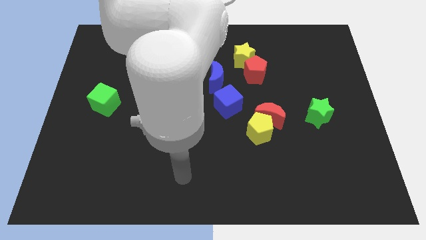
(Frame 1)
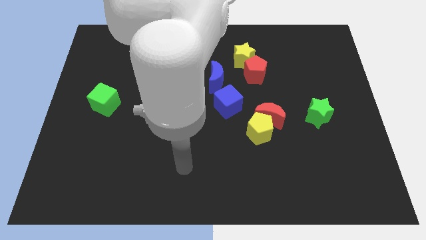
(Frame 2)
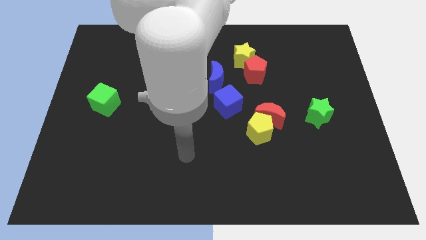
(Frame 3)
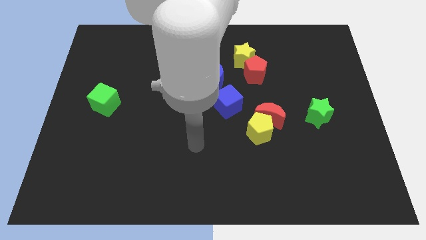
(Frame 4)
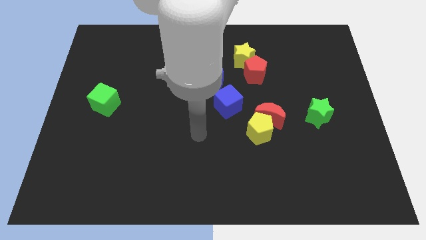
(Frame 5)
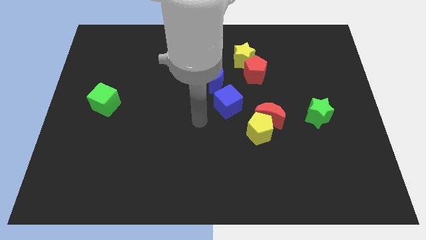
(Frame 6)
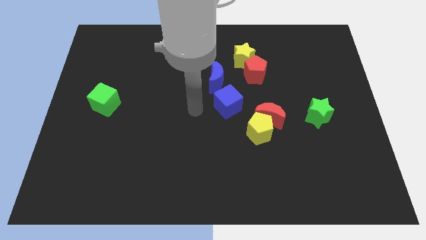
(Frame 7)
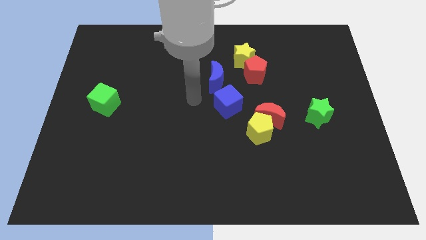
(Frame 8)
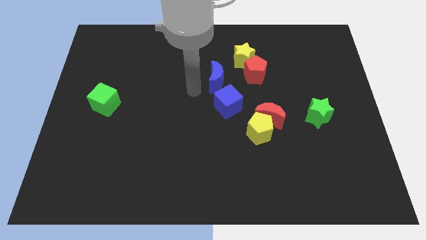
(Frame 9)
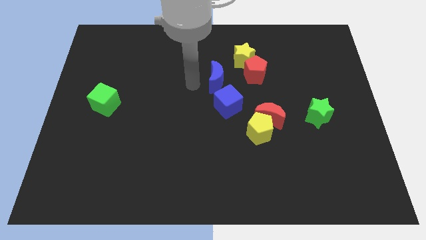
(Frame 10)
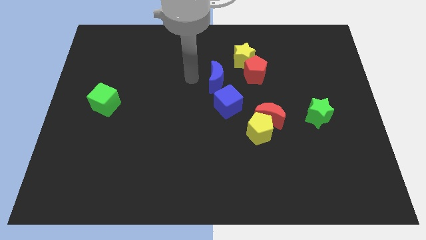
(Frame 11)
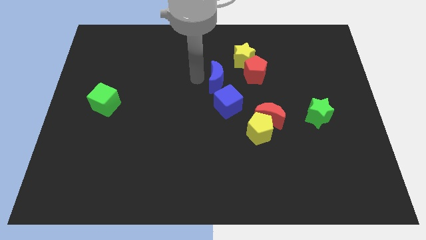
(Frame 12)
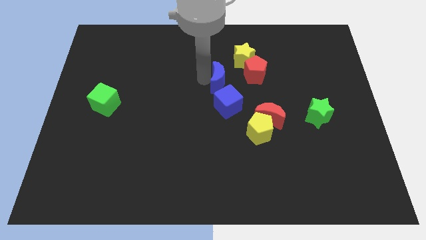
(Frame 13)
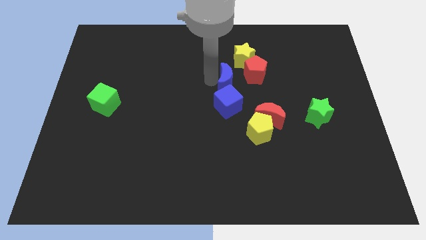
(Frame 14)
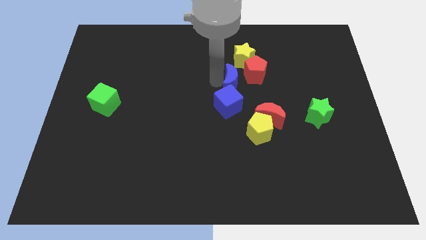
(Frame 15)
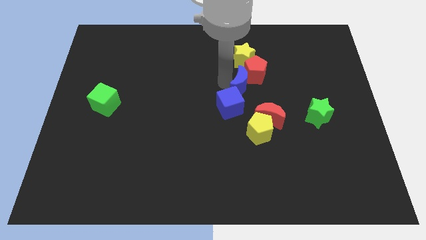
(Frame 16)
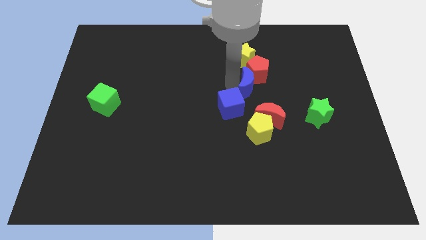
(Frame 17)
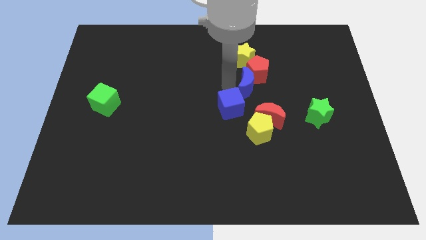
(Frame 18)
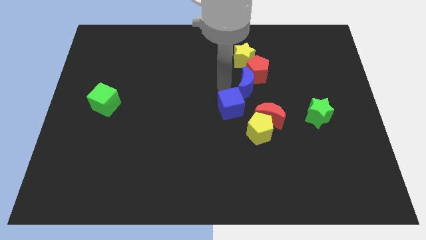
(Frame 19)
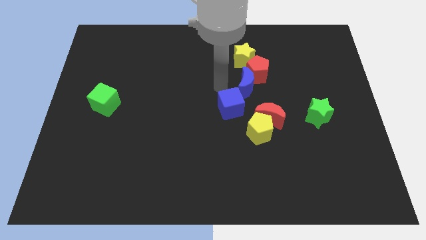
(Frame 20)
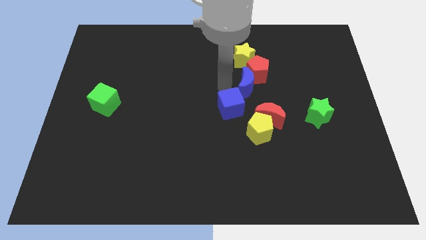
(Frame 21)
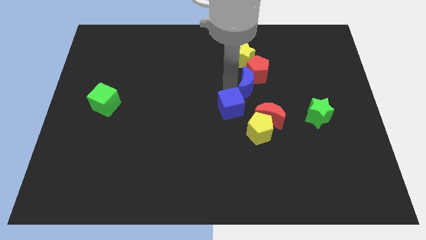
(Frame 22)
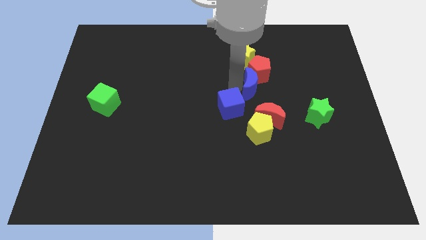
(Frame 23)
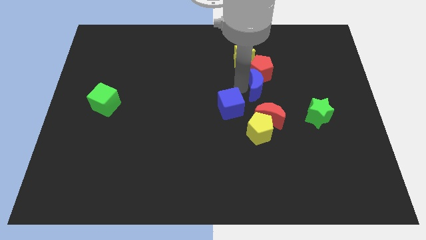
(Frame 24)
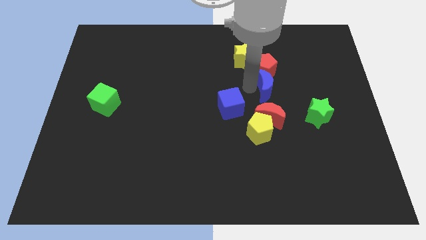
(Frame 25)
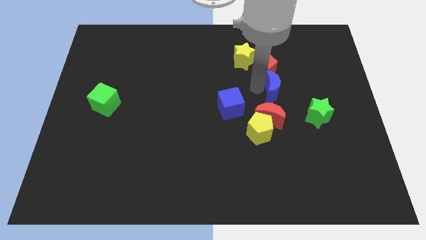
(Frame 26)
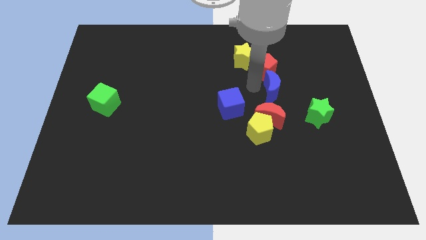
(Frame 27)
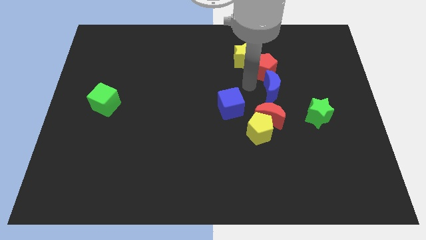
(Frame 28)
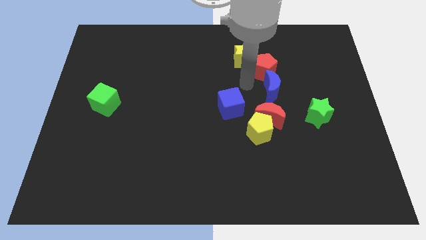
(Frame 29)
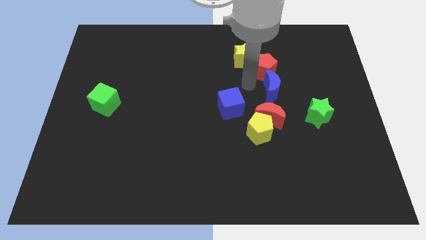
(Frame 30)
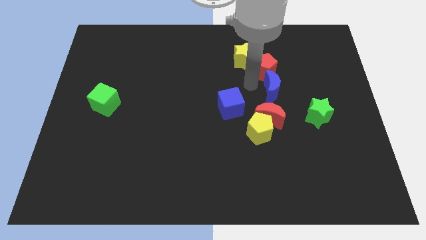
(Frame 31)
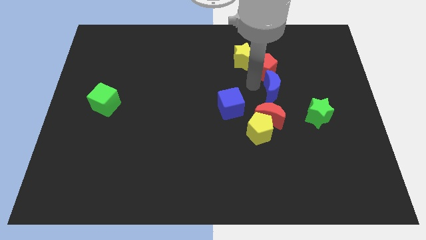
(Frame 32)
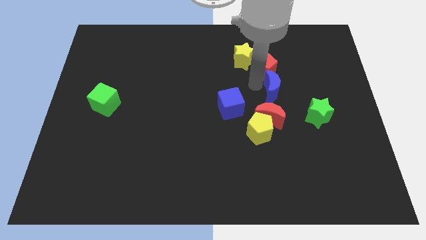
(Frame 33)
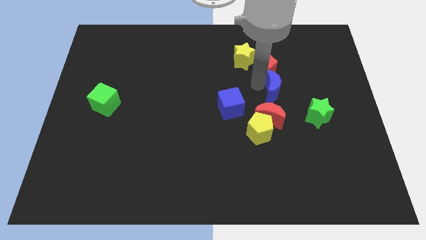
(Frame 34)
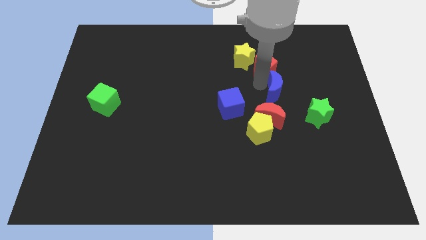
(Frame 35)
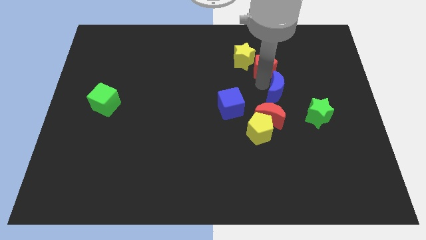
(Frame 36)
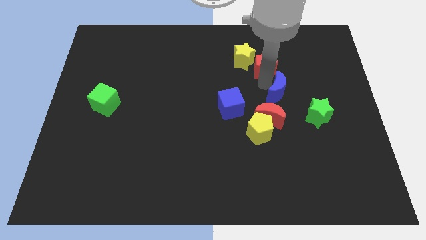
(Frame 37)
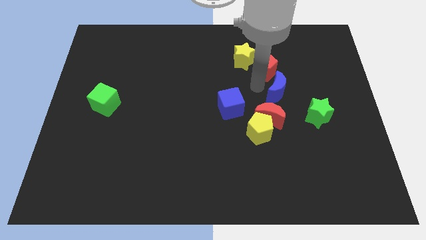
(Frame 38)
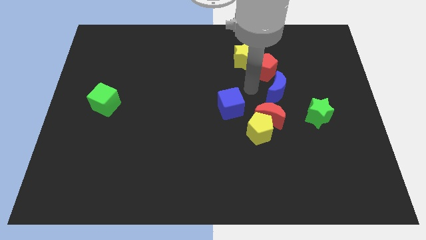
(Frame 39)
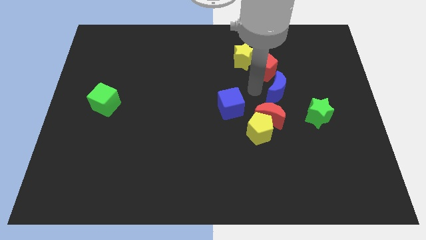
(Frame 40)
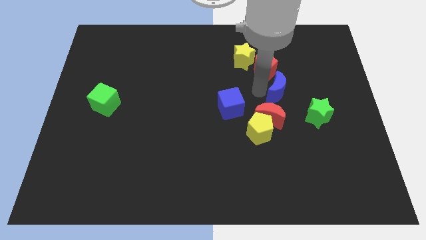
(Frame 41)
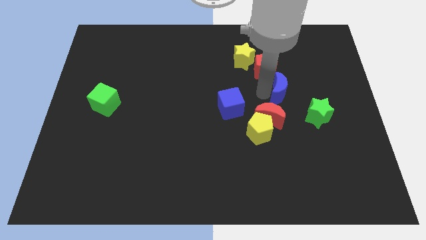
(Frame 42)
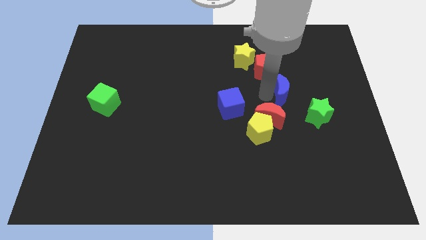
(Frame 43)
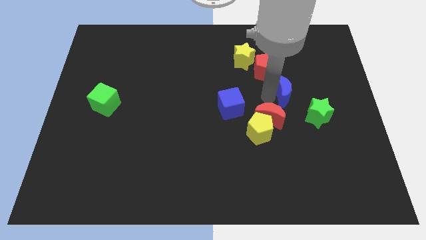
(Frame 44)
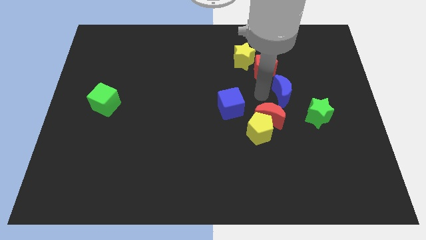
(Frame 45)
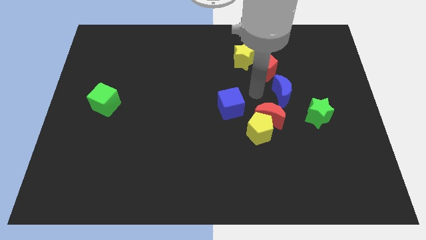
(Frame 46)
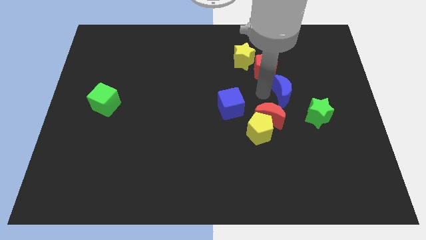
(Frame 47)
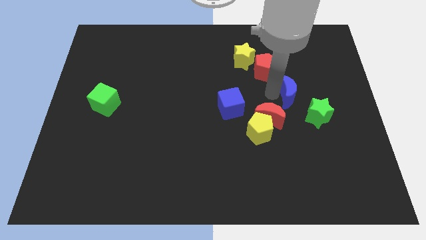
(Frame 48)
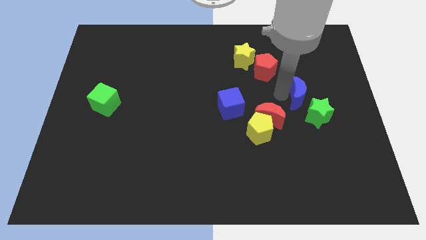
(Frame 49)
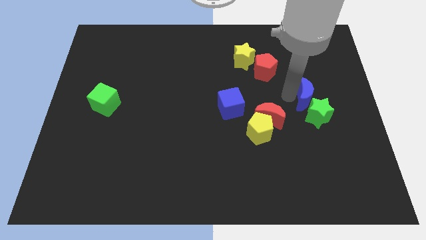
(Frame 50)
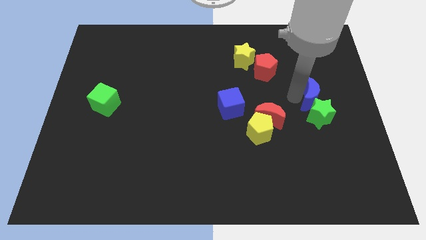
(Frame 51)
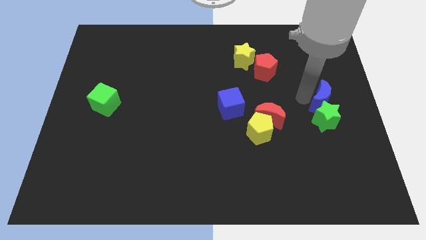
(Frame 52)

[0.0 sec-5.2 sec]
slide the blue moon to the right side of the board

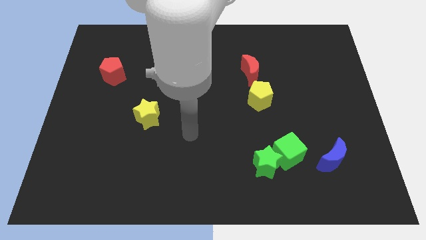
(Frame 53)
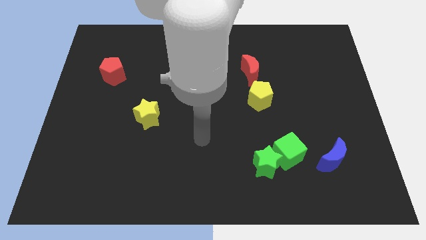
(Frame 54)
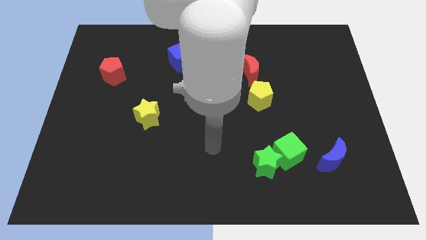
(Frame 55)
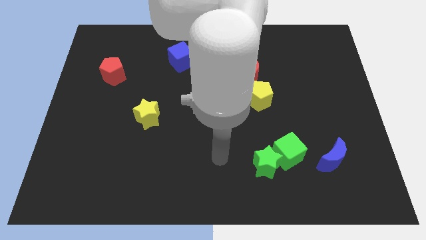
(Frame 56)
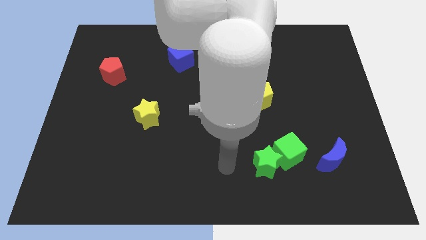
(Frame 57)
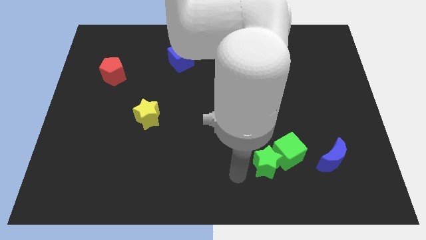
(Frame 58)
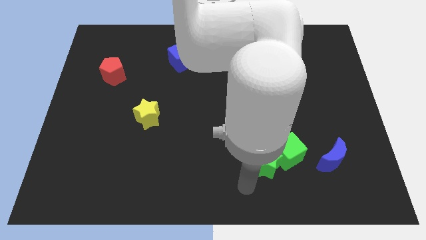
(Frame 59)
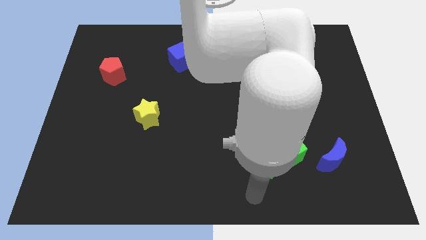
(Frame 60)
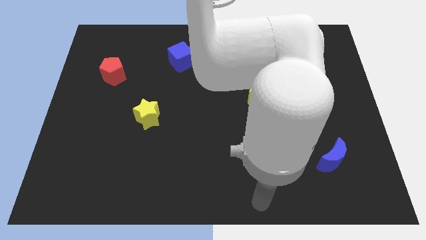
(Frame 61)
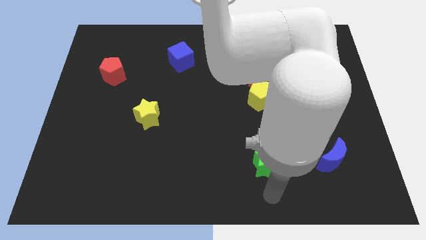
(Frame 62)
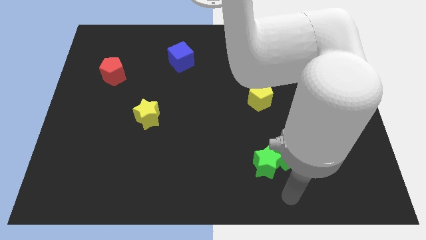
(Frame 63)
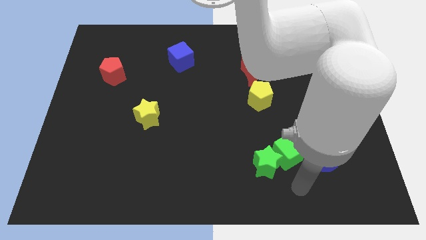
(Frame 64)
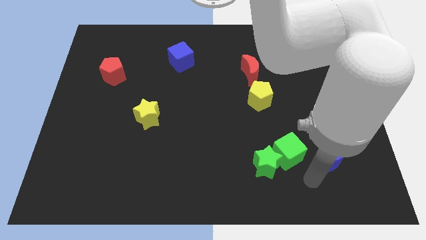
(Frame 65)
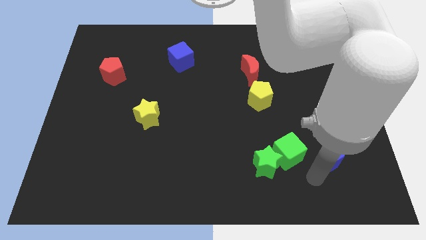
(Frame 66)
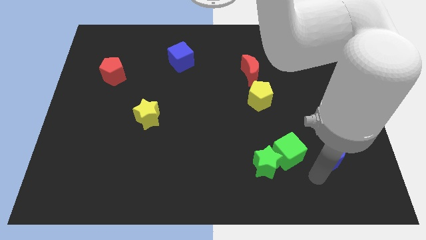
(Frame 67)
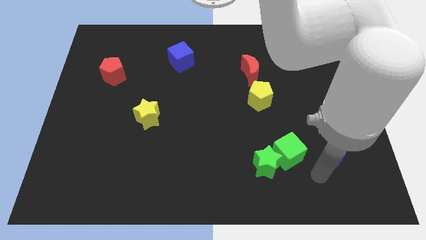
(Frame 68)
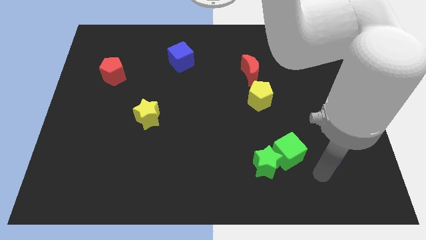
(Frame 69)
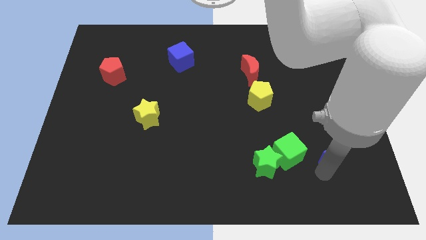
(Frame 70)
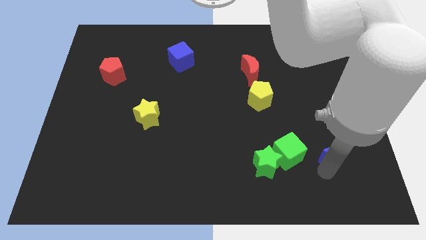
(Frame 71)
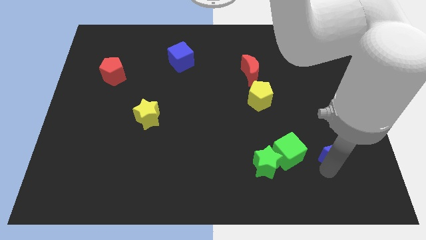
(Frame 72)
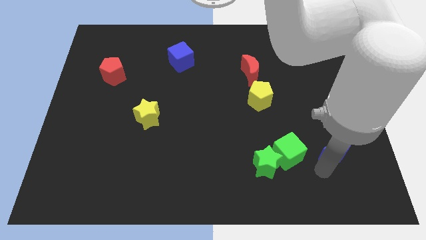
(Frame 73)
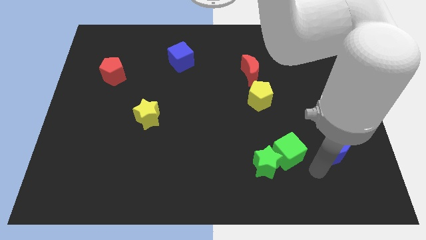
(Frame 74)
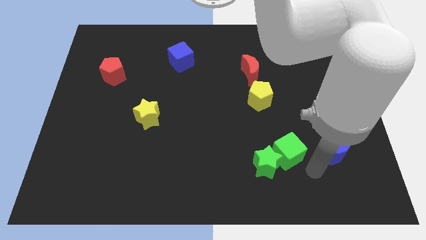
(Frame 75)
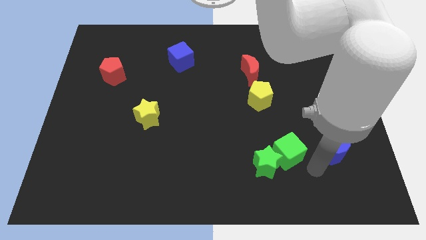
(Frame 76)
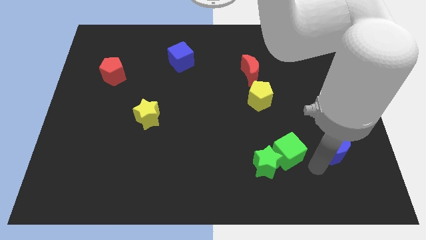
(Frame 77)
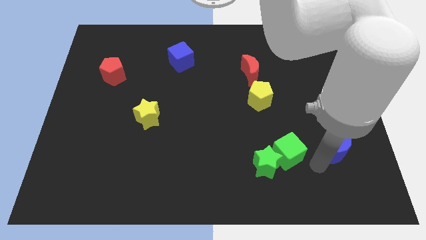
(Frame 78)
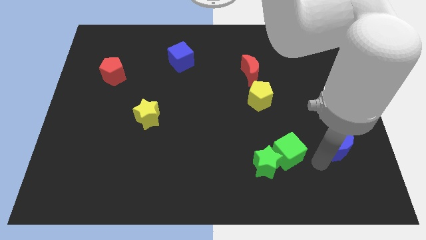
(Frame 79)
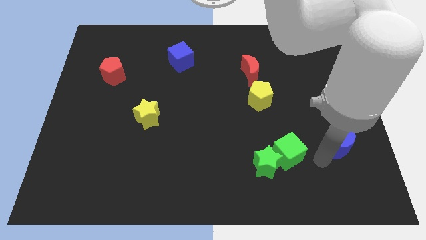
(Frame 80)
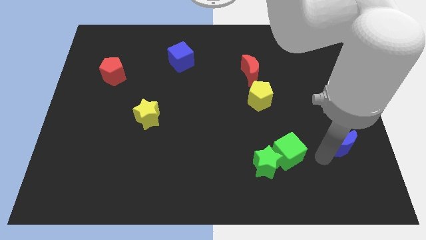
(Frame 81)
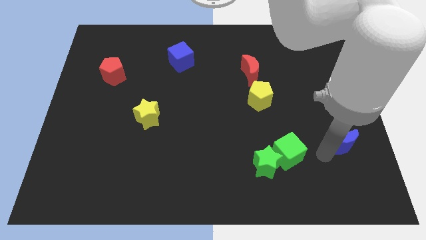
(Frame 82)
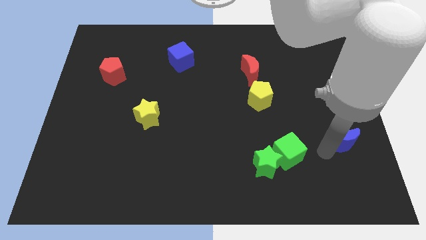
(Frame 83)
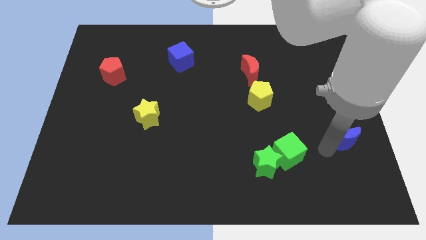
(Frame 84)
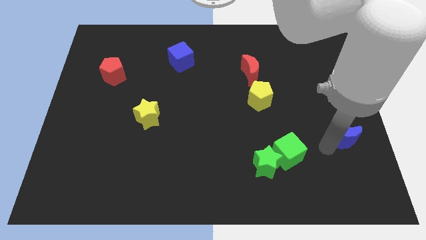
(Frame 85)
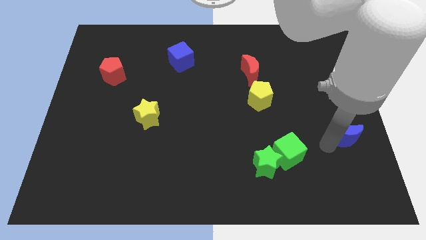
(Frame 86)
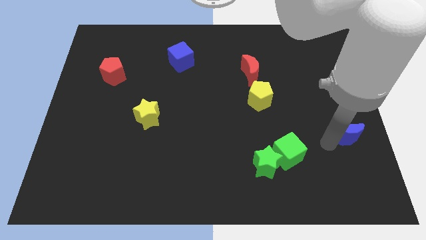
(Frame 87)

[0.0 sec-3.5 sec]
move the blue moon to the center right
